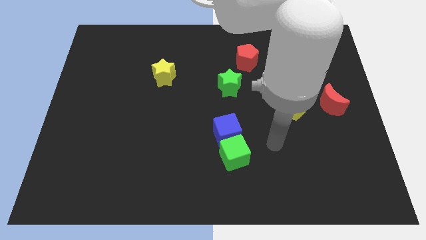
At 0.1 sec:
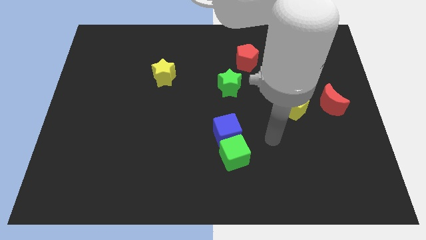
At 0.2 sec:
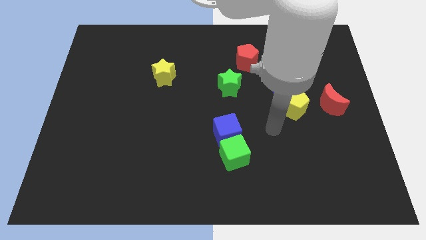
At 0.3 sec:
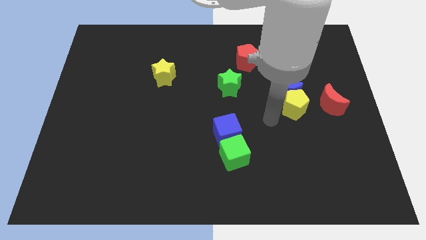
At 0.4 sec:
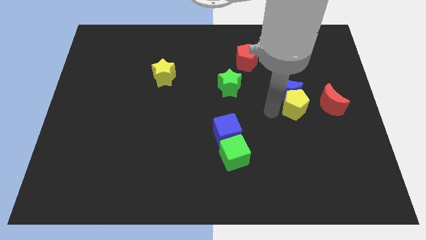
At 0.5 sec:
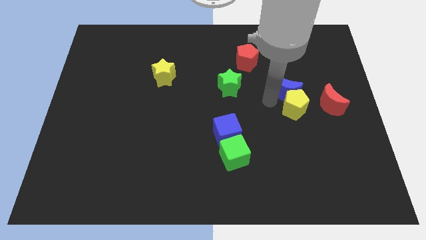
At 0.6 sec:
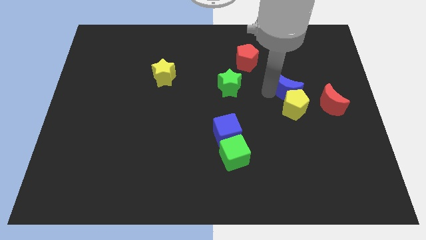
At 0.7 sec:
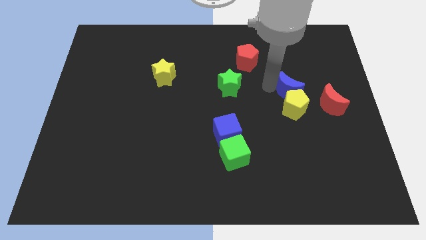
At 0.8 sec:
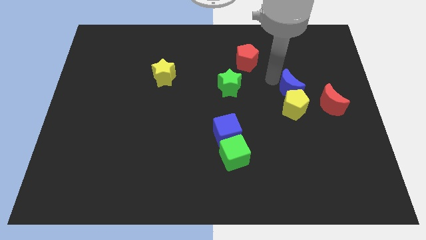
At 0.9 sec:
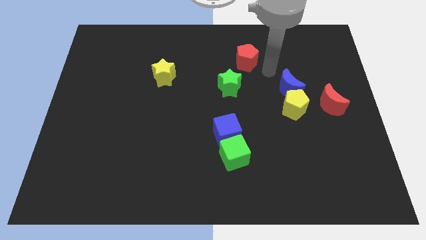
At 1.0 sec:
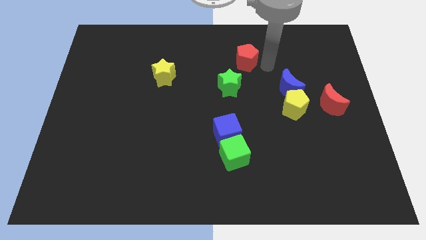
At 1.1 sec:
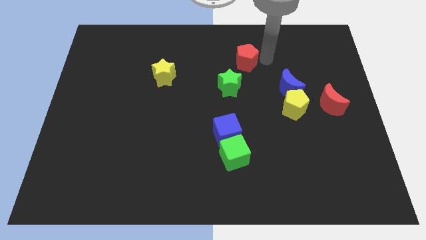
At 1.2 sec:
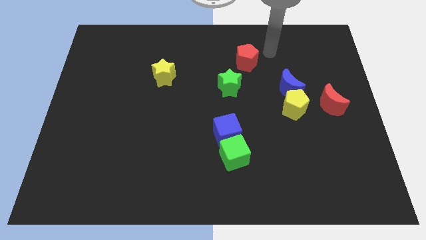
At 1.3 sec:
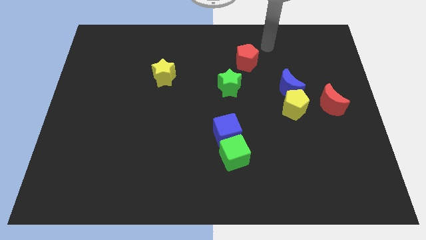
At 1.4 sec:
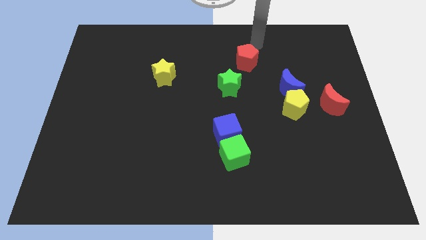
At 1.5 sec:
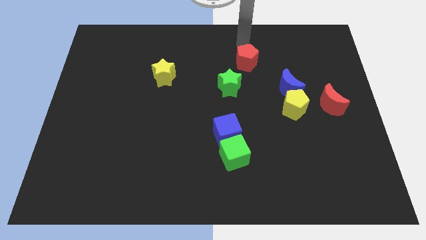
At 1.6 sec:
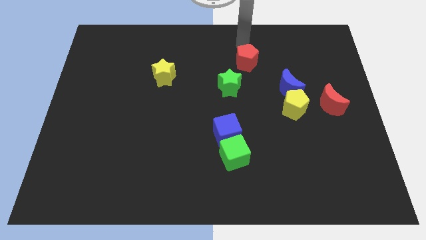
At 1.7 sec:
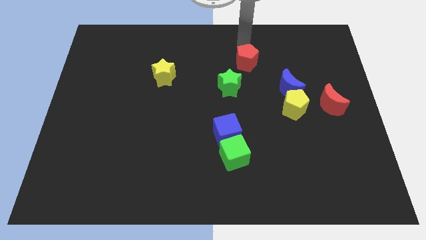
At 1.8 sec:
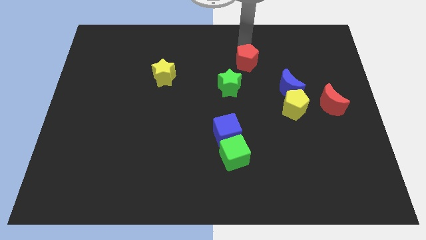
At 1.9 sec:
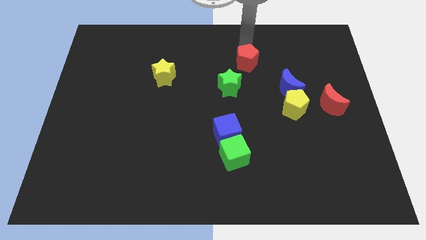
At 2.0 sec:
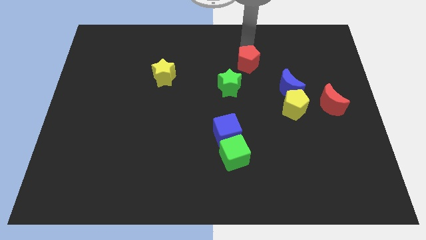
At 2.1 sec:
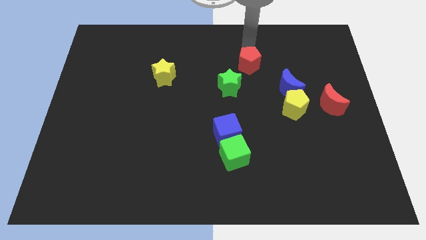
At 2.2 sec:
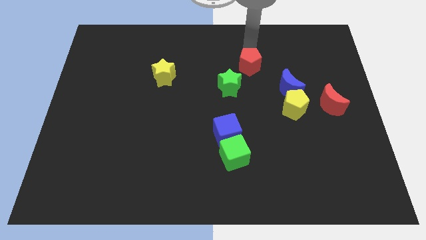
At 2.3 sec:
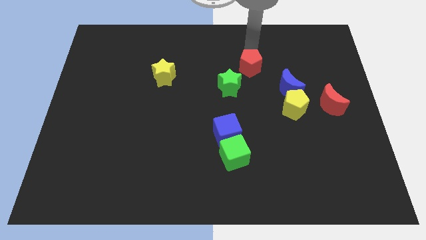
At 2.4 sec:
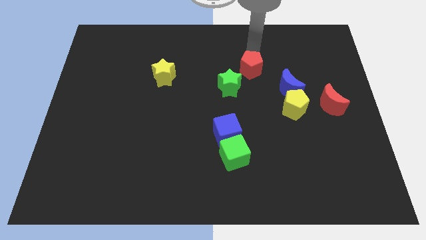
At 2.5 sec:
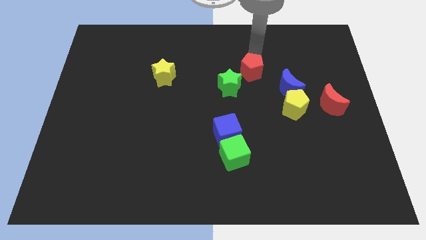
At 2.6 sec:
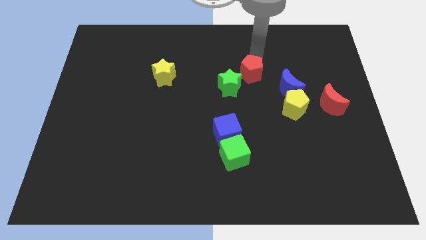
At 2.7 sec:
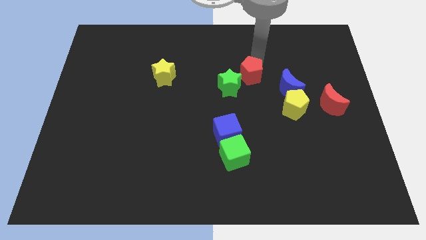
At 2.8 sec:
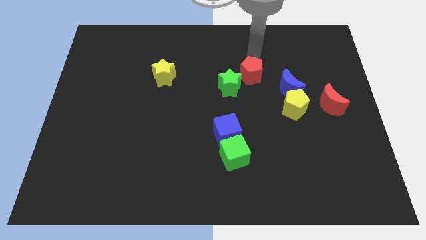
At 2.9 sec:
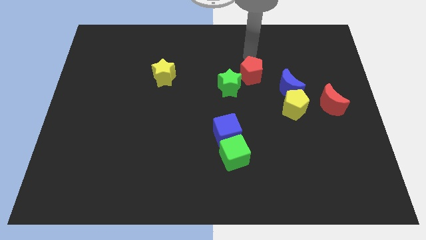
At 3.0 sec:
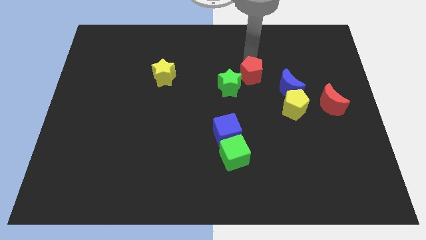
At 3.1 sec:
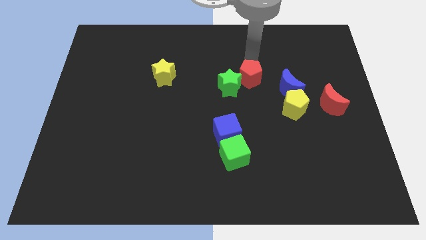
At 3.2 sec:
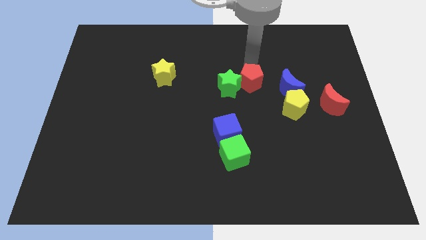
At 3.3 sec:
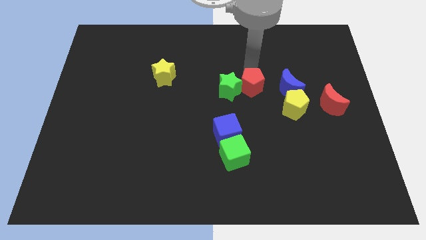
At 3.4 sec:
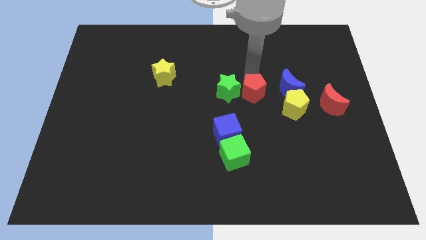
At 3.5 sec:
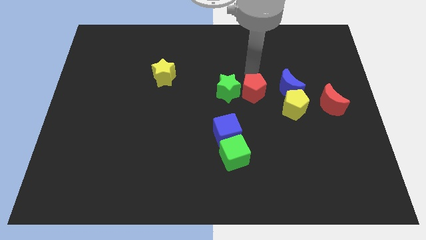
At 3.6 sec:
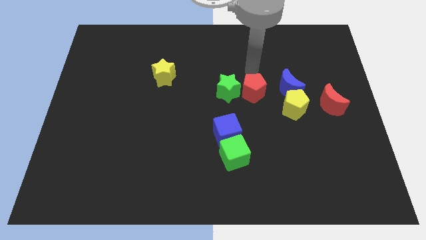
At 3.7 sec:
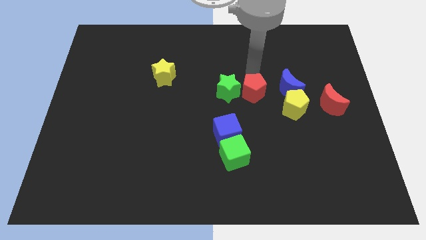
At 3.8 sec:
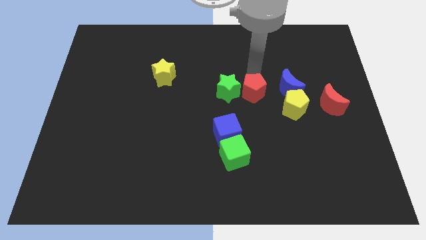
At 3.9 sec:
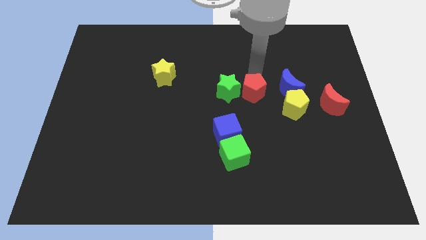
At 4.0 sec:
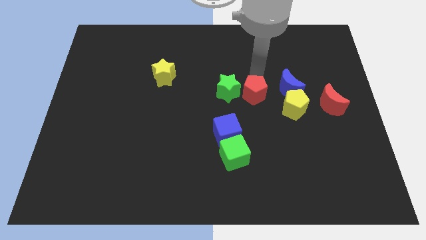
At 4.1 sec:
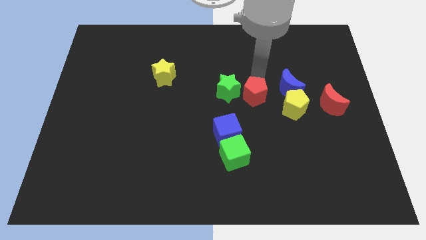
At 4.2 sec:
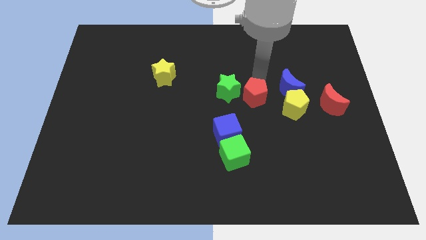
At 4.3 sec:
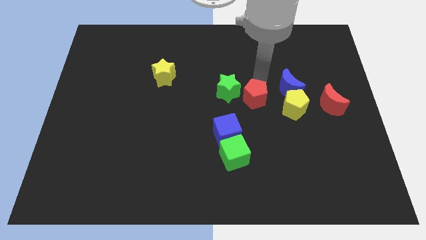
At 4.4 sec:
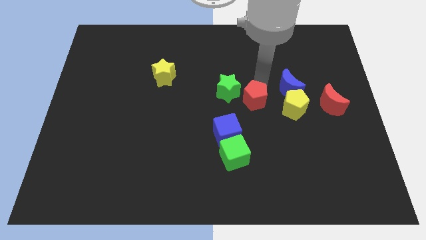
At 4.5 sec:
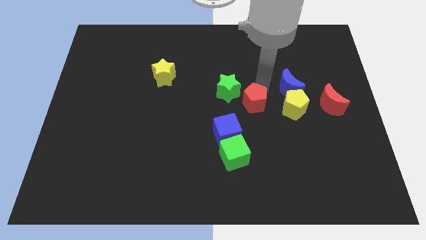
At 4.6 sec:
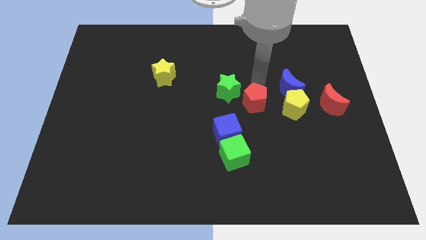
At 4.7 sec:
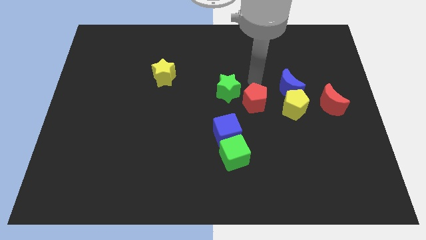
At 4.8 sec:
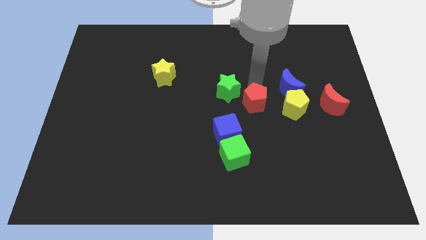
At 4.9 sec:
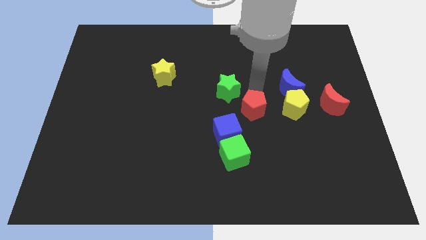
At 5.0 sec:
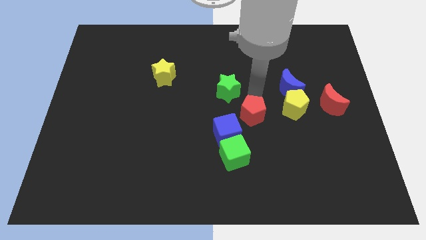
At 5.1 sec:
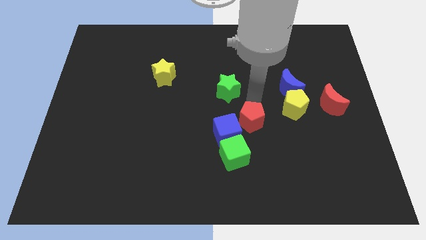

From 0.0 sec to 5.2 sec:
slide the red pentagon diagonally up and to the right of the green cube

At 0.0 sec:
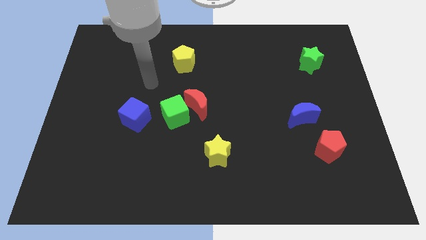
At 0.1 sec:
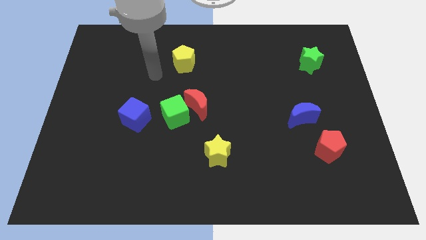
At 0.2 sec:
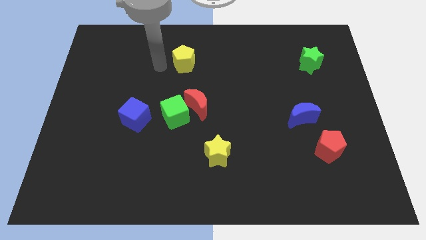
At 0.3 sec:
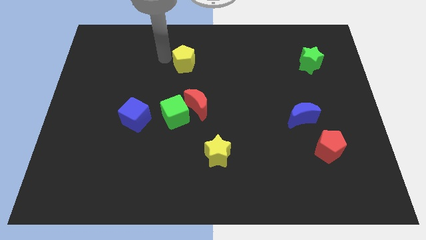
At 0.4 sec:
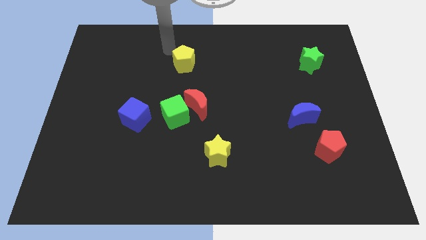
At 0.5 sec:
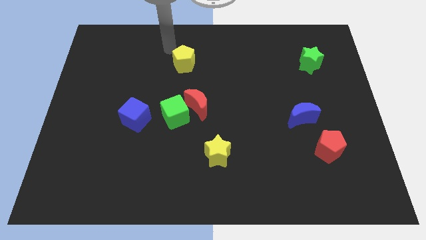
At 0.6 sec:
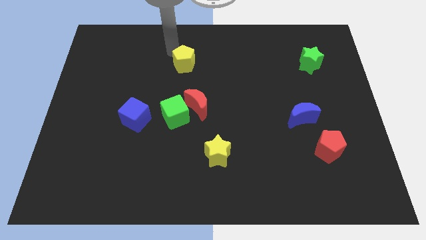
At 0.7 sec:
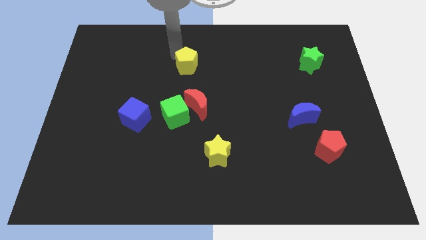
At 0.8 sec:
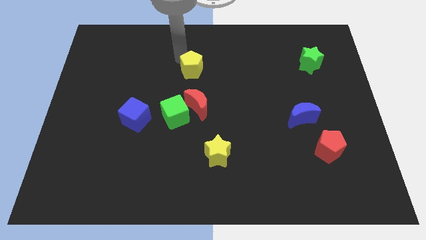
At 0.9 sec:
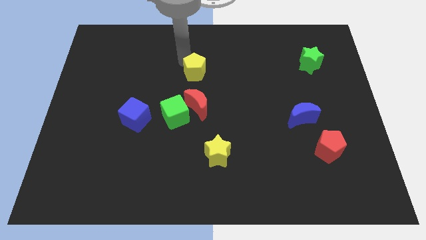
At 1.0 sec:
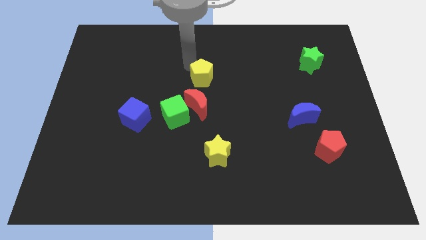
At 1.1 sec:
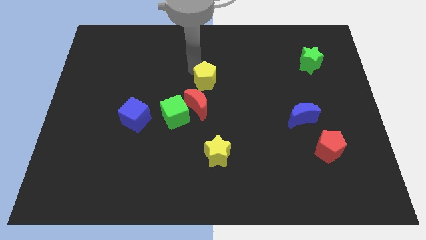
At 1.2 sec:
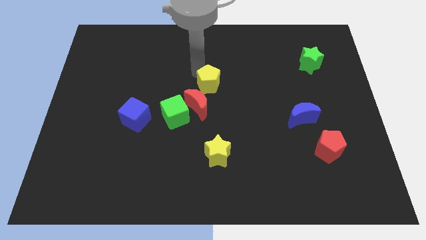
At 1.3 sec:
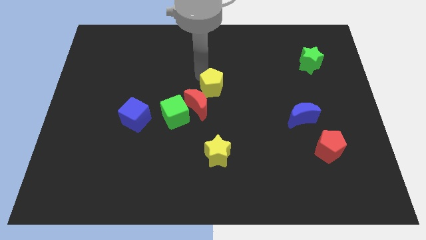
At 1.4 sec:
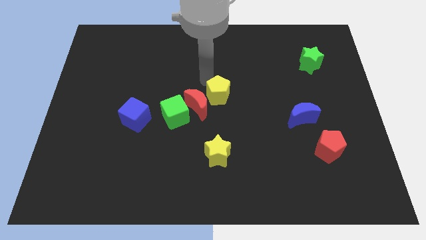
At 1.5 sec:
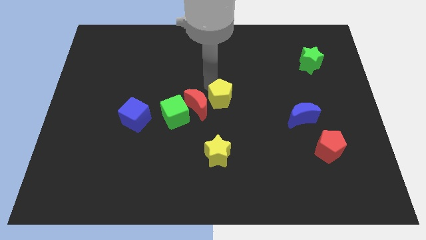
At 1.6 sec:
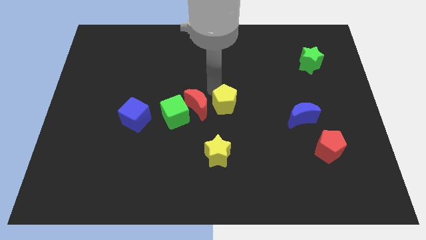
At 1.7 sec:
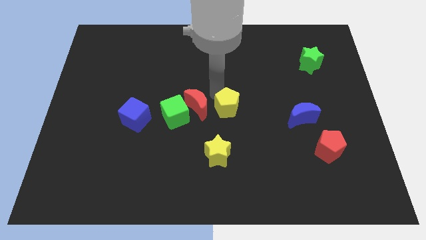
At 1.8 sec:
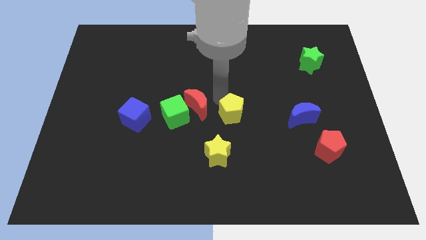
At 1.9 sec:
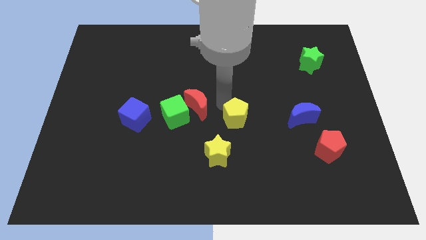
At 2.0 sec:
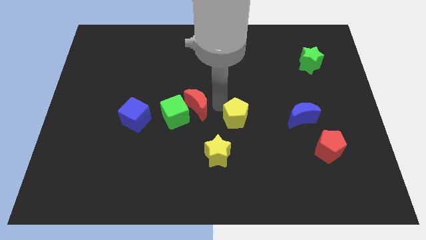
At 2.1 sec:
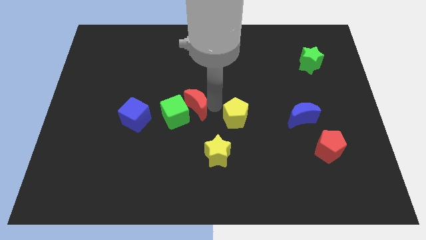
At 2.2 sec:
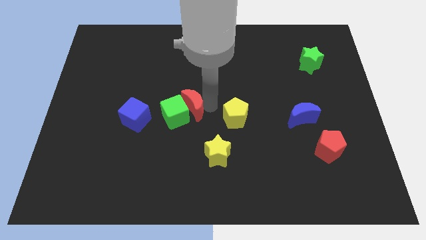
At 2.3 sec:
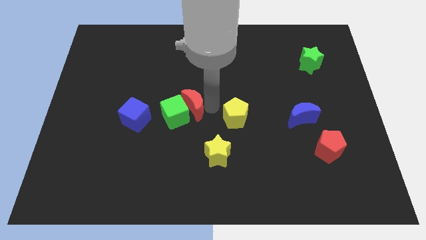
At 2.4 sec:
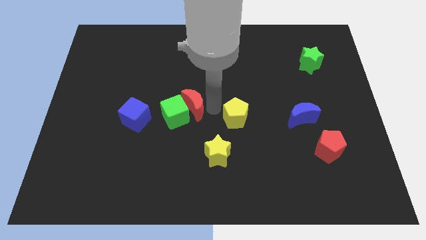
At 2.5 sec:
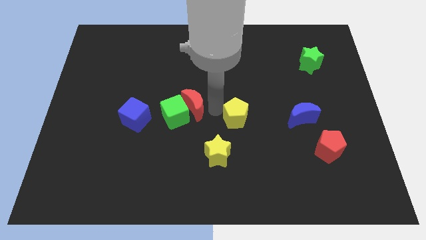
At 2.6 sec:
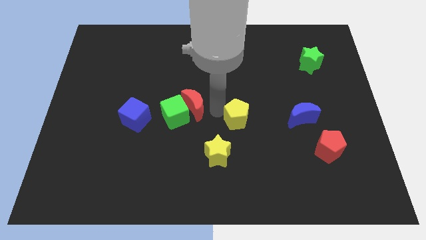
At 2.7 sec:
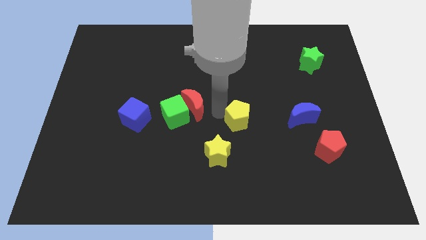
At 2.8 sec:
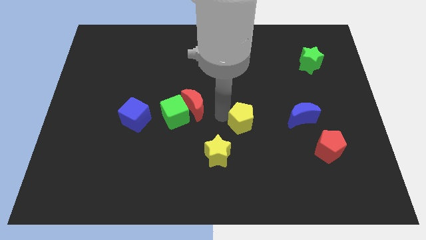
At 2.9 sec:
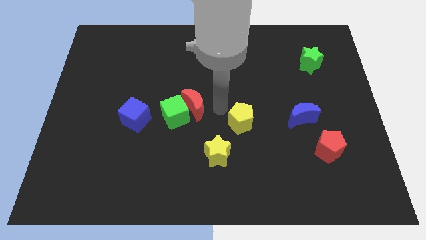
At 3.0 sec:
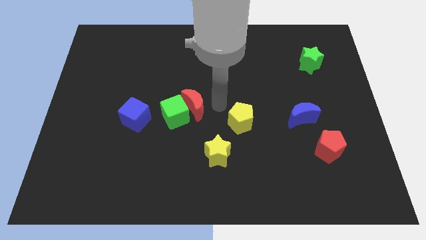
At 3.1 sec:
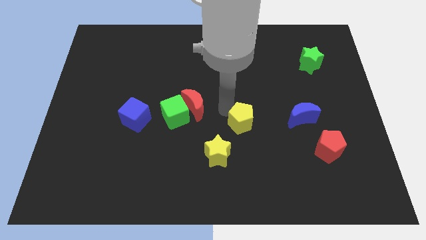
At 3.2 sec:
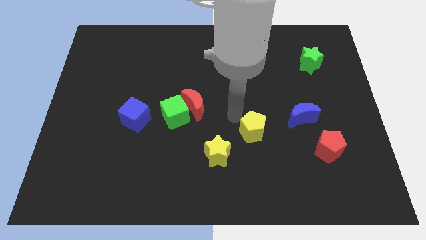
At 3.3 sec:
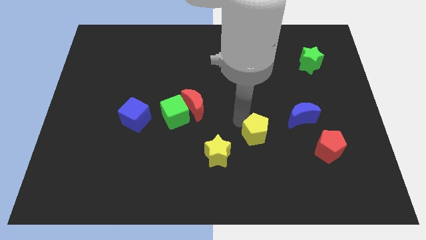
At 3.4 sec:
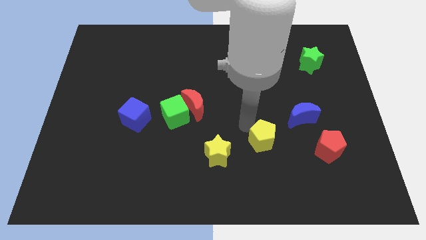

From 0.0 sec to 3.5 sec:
put the yellow pentagon to the left of the red pentagon
